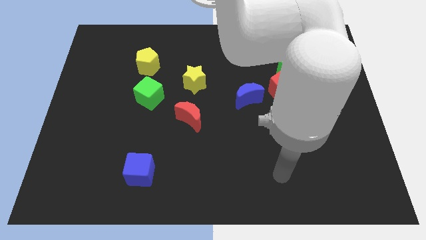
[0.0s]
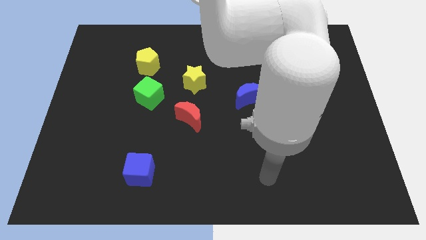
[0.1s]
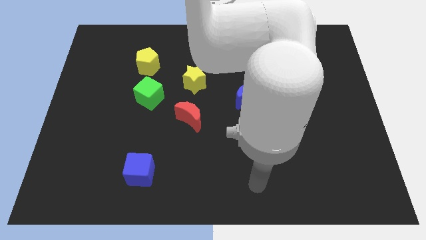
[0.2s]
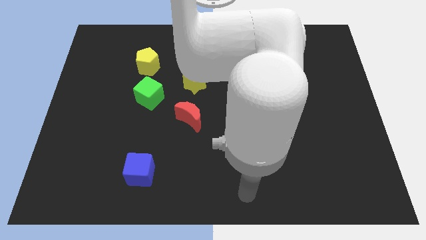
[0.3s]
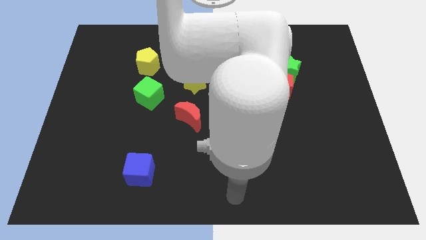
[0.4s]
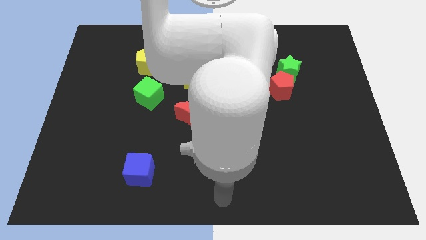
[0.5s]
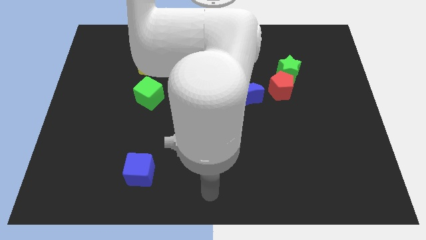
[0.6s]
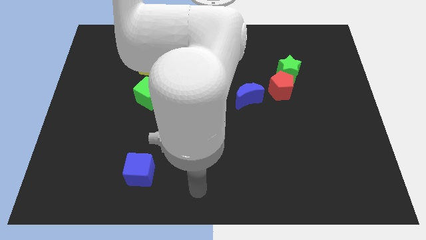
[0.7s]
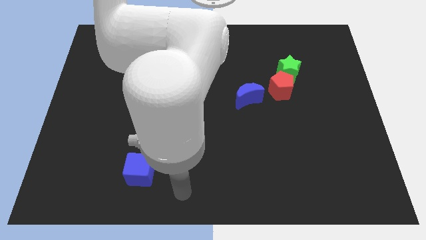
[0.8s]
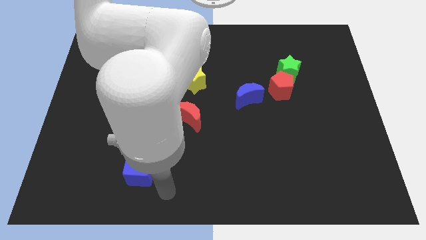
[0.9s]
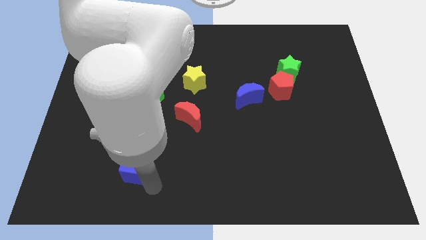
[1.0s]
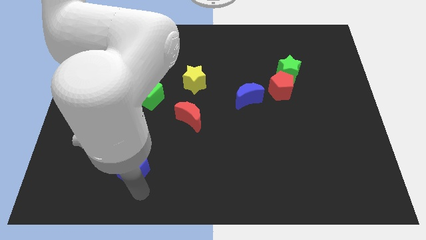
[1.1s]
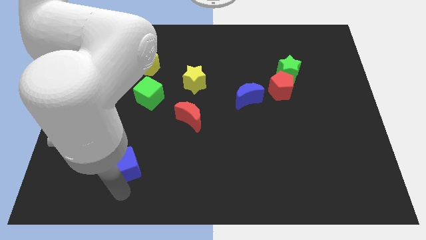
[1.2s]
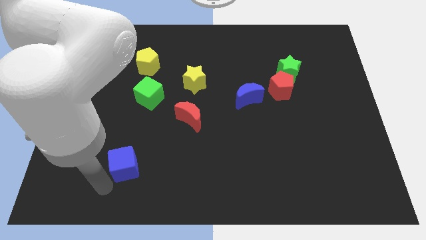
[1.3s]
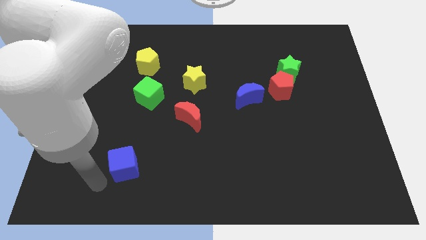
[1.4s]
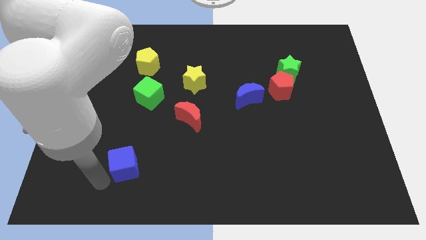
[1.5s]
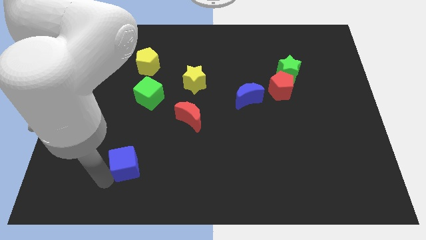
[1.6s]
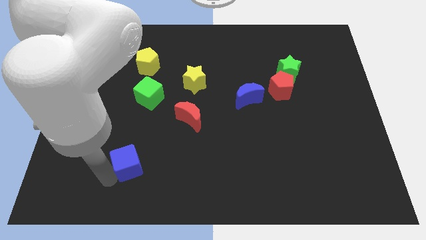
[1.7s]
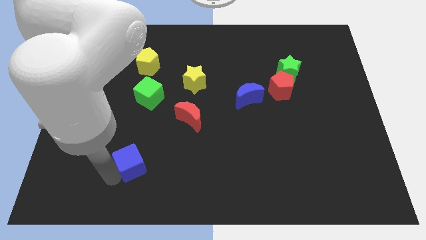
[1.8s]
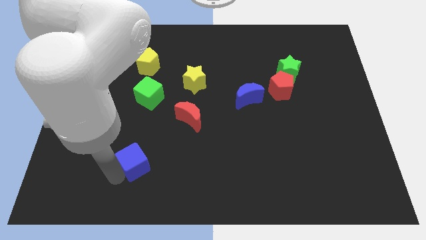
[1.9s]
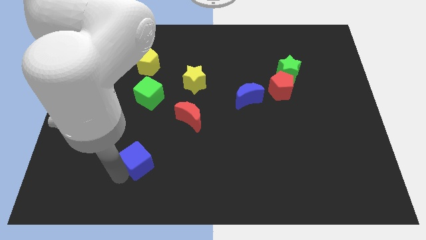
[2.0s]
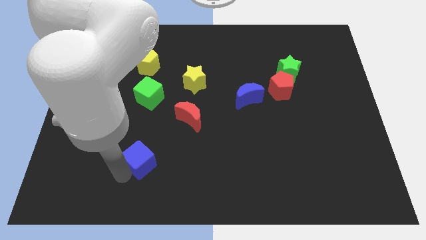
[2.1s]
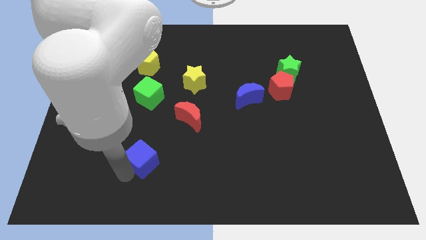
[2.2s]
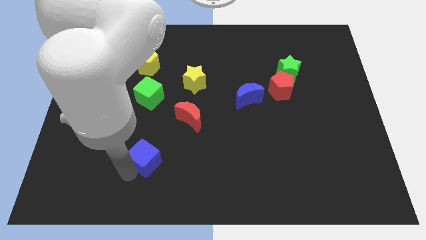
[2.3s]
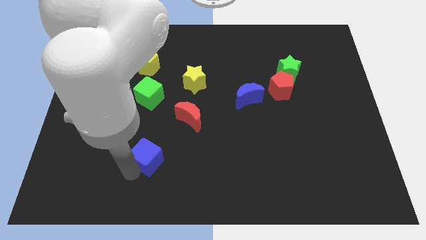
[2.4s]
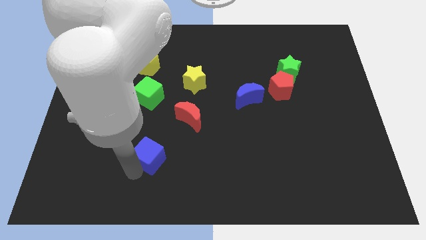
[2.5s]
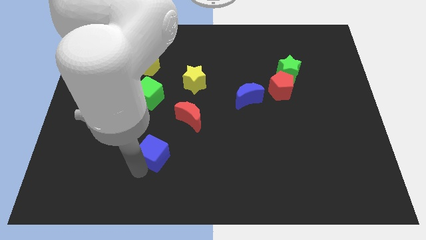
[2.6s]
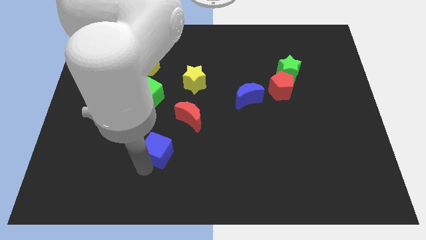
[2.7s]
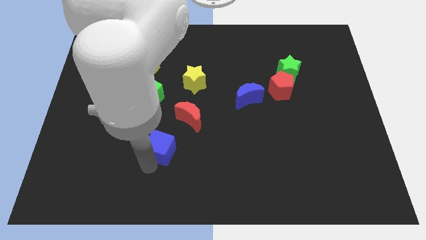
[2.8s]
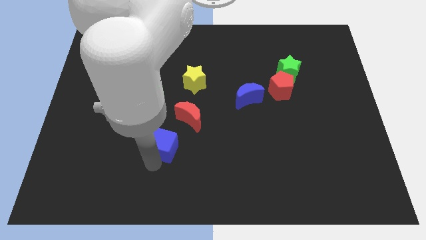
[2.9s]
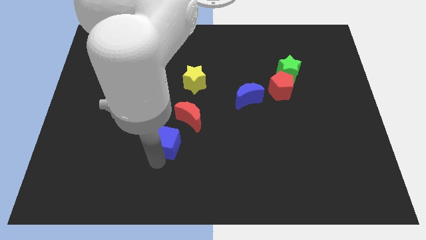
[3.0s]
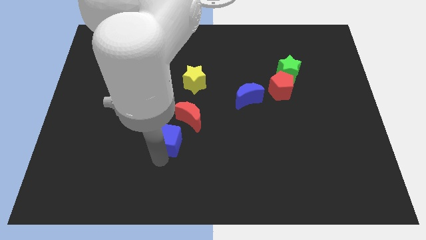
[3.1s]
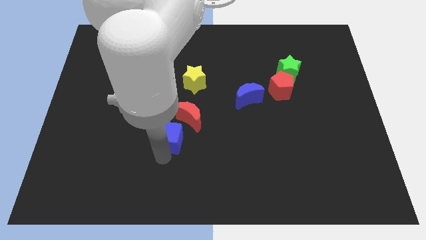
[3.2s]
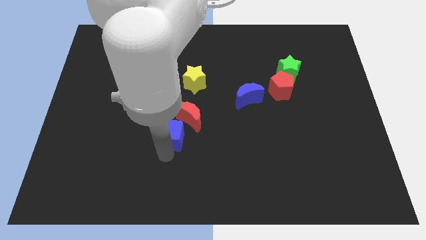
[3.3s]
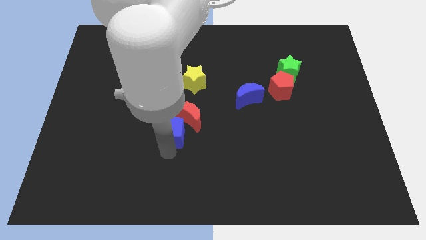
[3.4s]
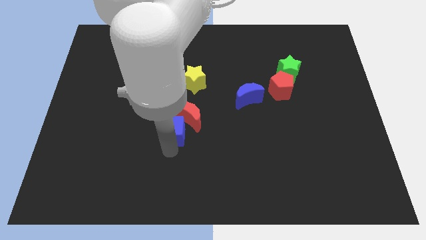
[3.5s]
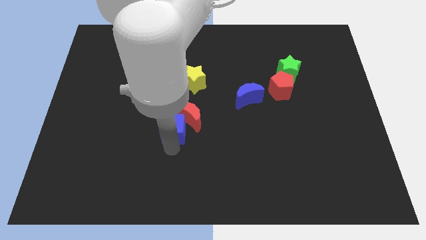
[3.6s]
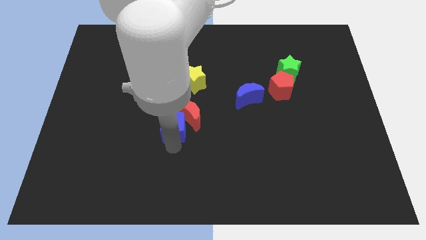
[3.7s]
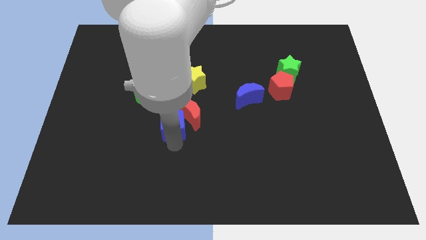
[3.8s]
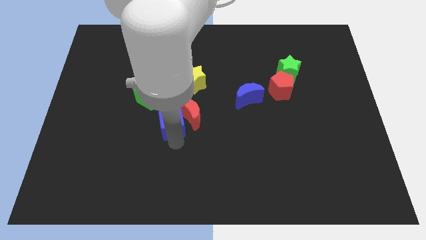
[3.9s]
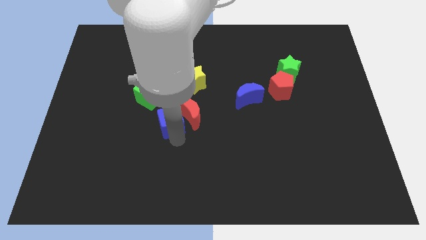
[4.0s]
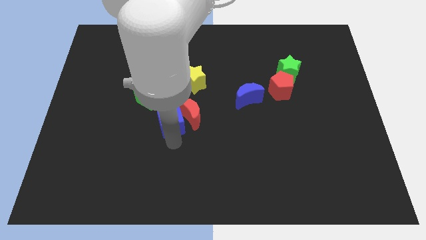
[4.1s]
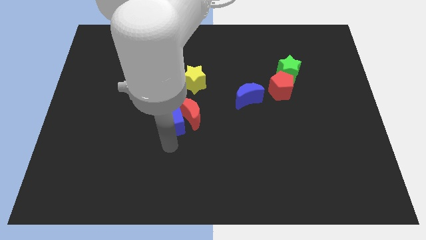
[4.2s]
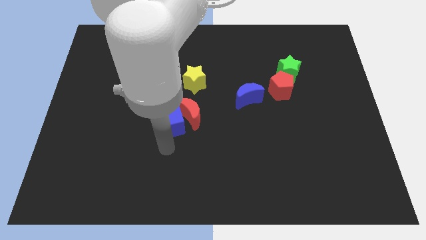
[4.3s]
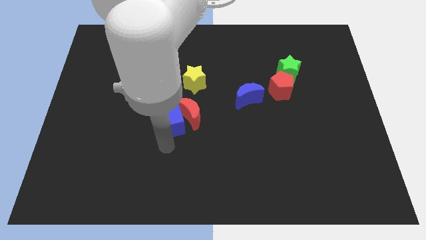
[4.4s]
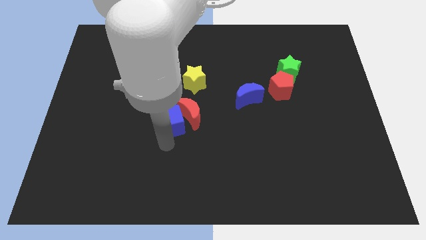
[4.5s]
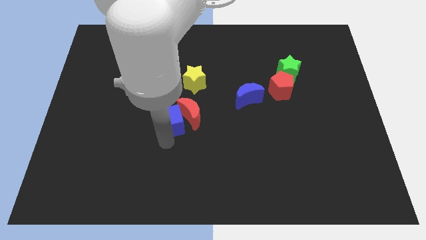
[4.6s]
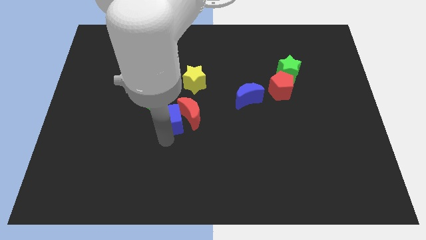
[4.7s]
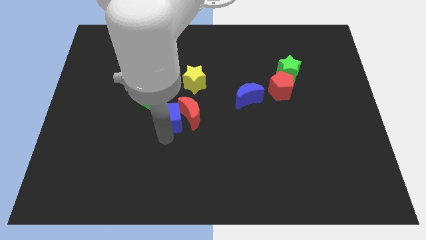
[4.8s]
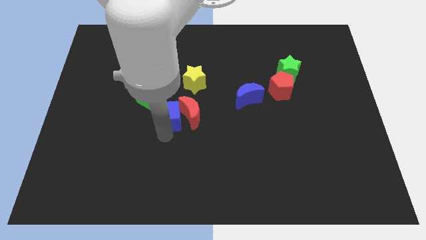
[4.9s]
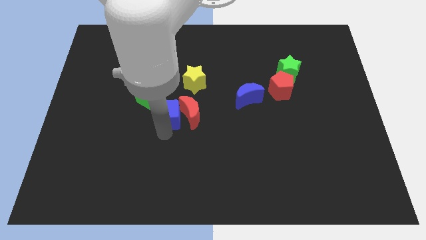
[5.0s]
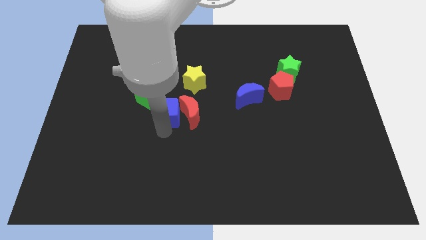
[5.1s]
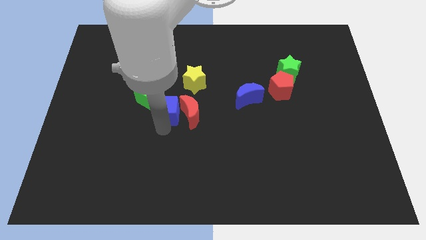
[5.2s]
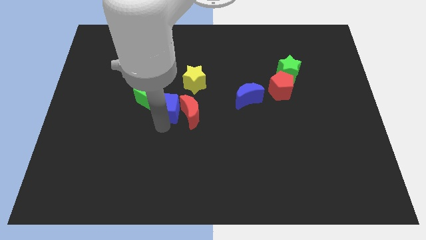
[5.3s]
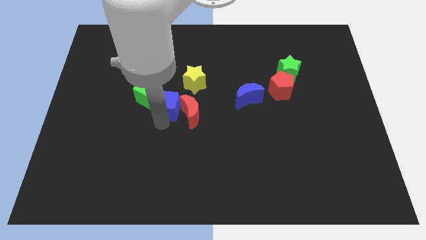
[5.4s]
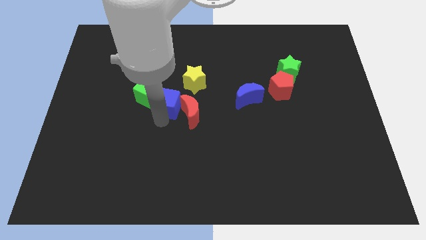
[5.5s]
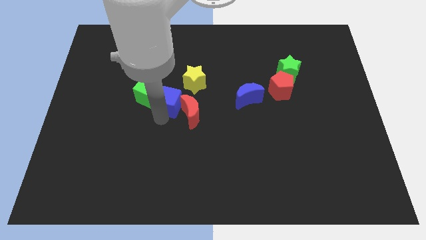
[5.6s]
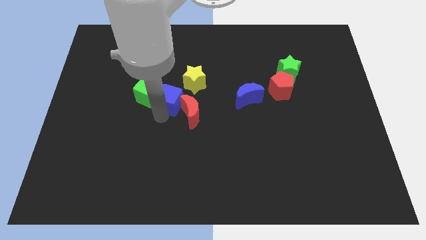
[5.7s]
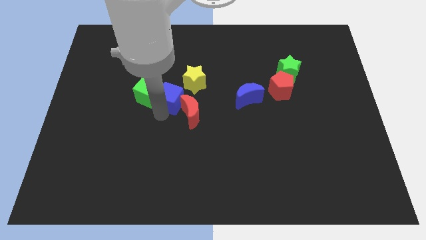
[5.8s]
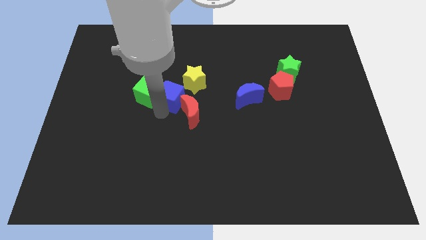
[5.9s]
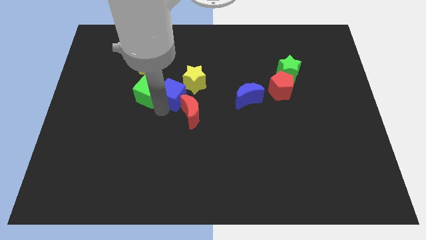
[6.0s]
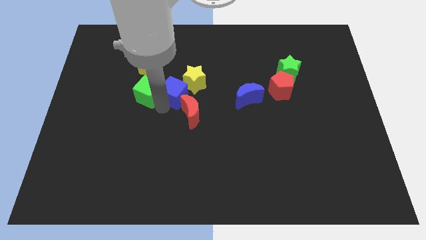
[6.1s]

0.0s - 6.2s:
push the blue cube to the yellow star

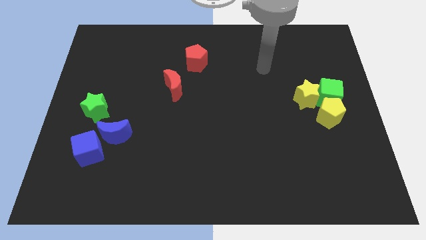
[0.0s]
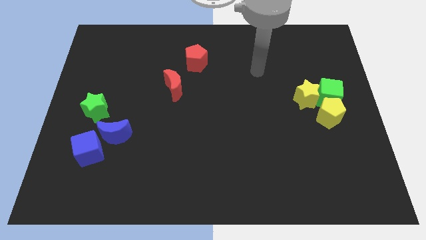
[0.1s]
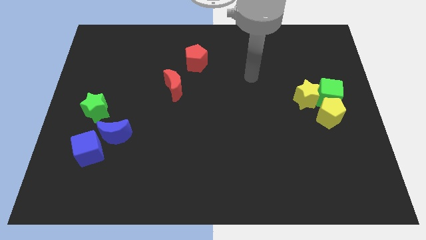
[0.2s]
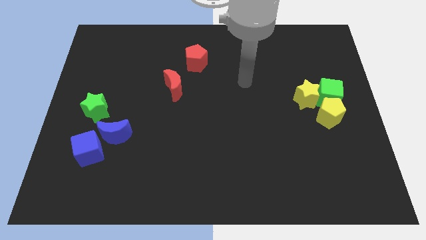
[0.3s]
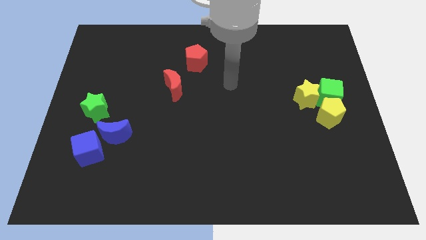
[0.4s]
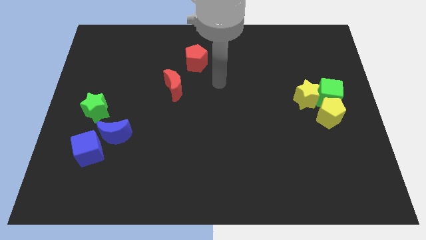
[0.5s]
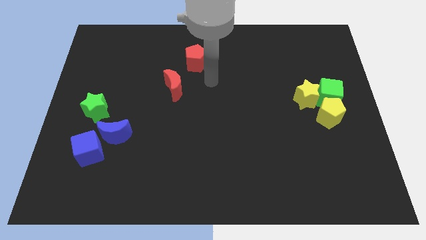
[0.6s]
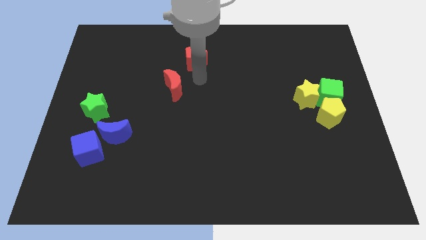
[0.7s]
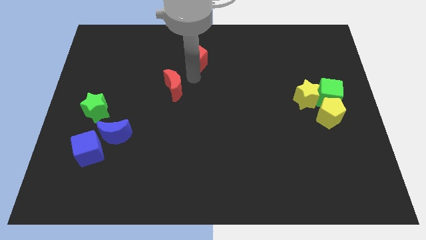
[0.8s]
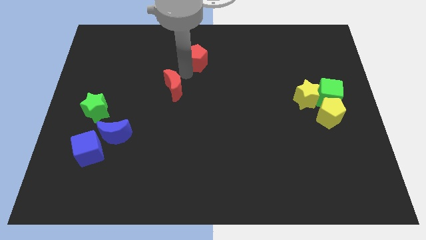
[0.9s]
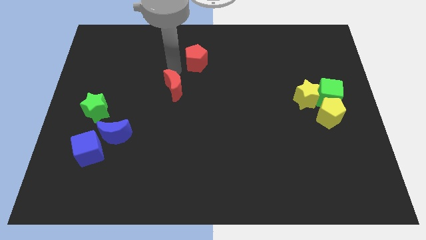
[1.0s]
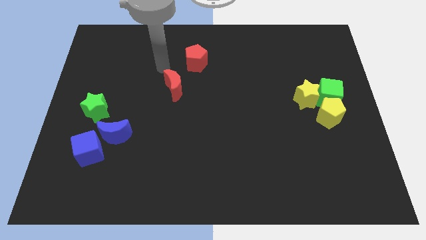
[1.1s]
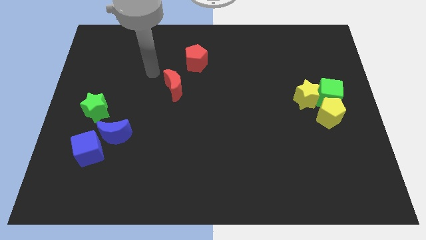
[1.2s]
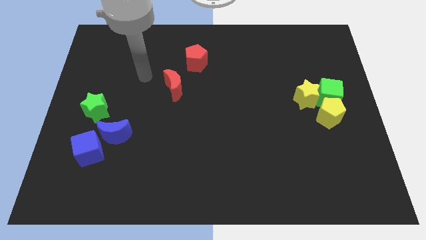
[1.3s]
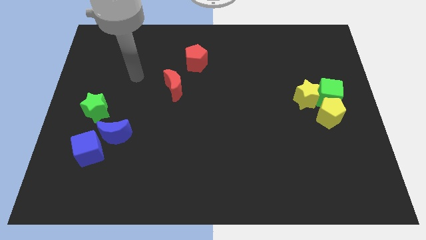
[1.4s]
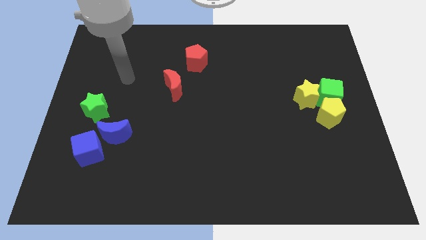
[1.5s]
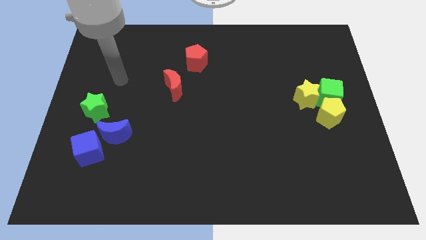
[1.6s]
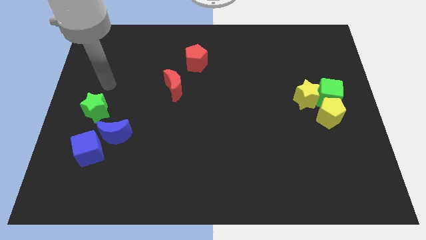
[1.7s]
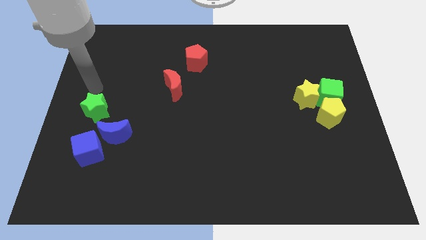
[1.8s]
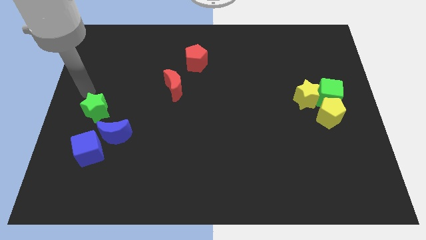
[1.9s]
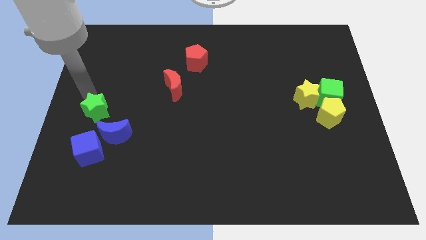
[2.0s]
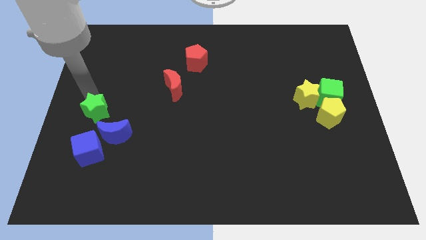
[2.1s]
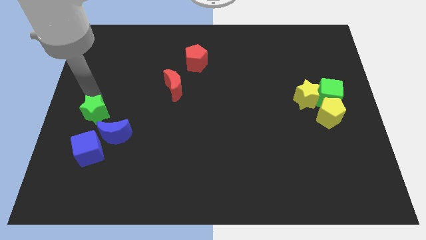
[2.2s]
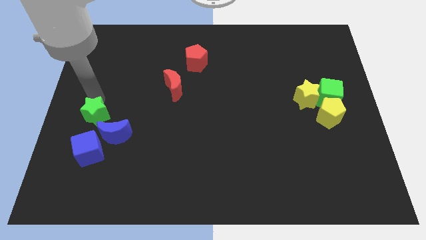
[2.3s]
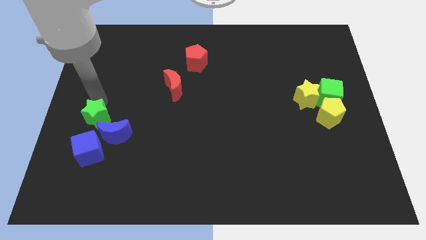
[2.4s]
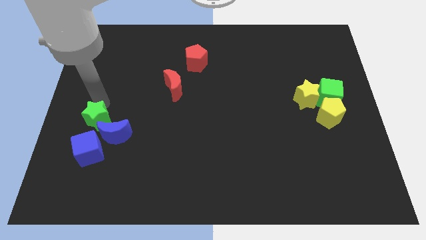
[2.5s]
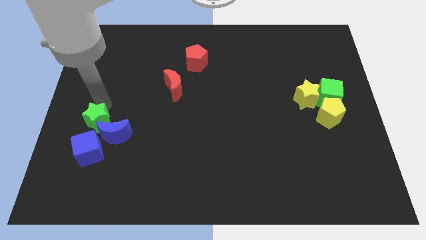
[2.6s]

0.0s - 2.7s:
move the green star close to the blue moon
